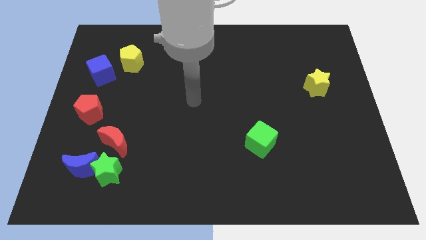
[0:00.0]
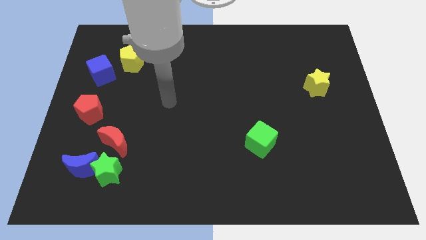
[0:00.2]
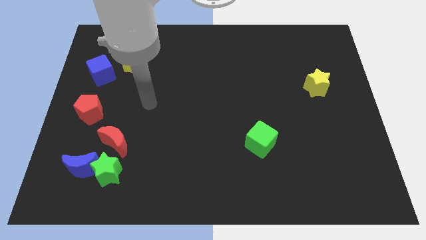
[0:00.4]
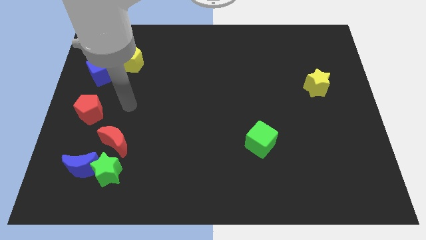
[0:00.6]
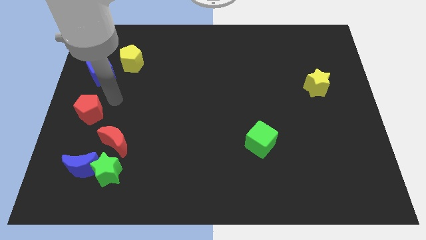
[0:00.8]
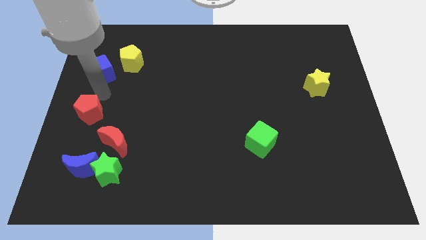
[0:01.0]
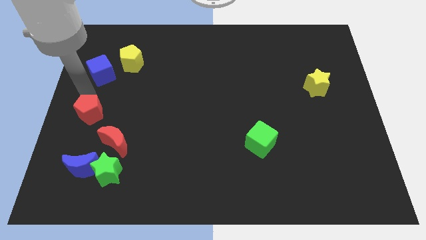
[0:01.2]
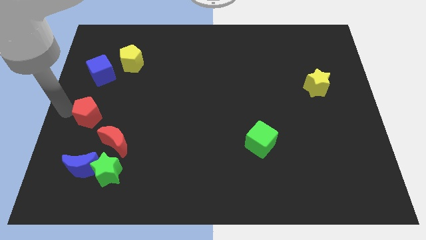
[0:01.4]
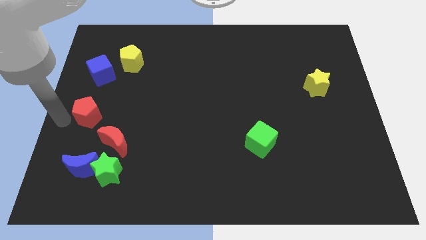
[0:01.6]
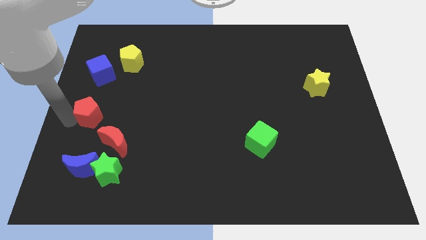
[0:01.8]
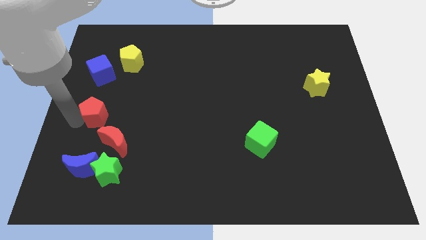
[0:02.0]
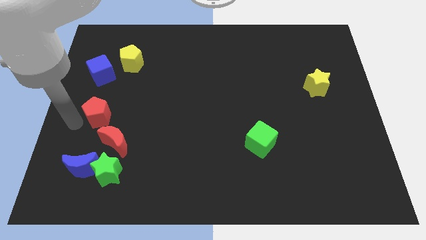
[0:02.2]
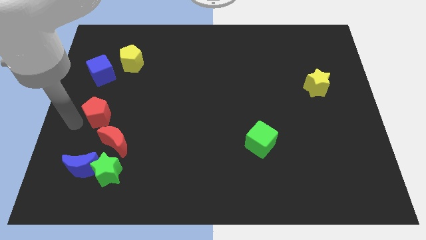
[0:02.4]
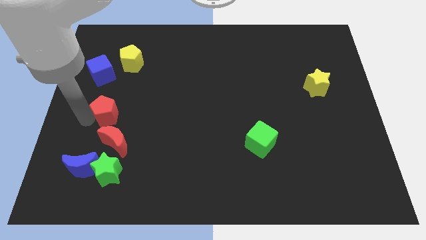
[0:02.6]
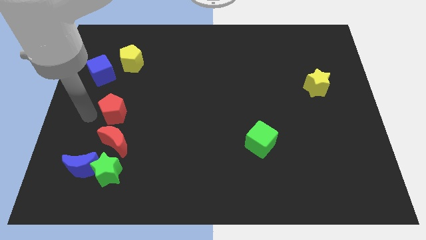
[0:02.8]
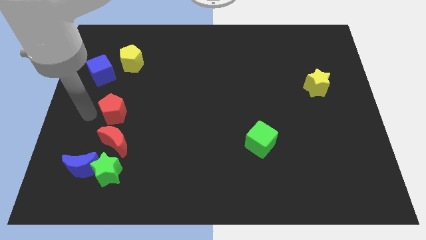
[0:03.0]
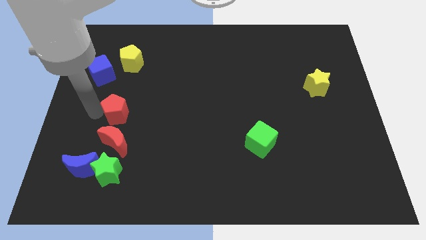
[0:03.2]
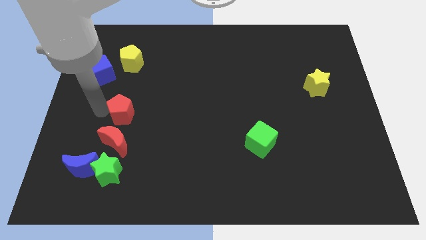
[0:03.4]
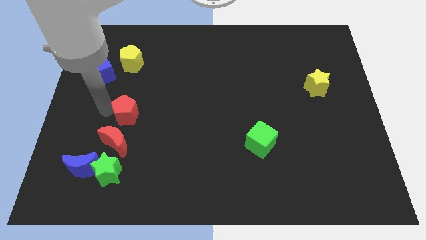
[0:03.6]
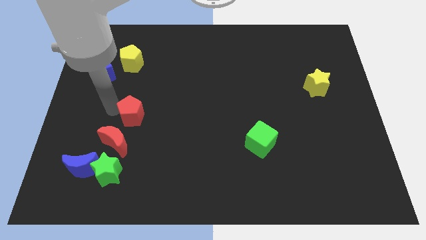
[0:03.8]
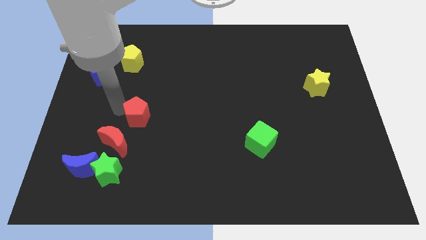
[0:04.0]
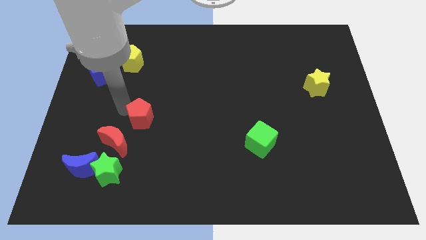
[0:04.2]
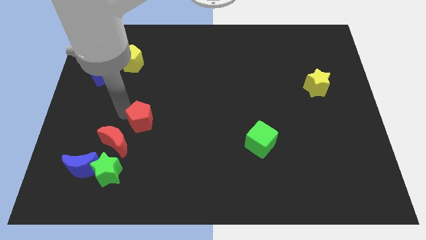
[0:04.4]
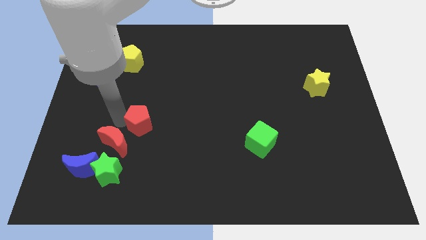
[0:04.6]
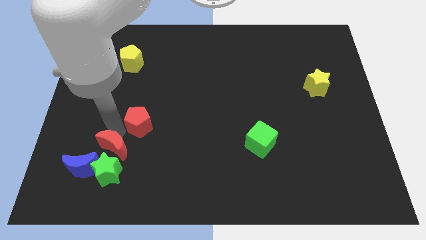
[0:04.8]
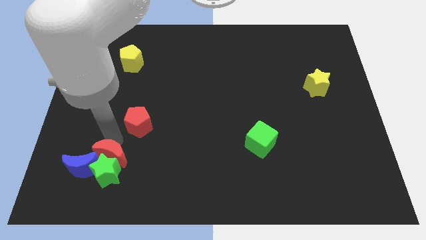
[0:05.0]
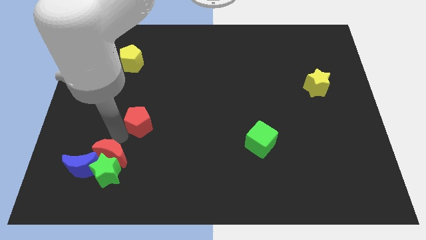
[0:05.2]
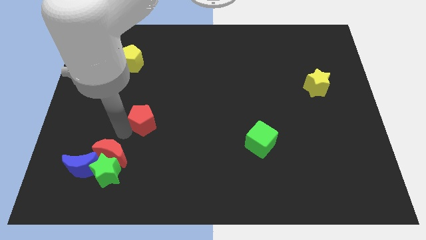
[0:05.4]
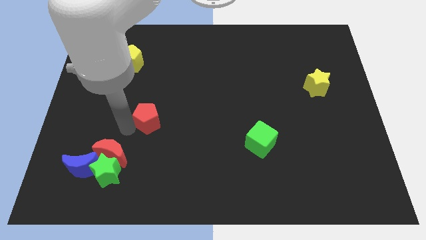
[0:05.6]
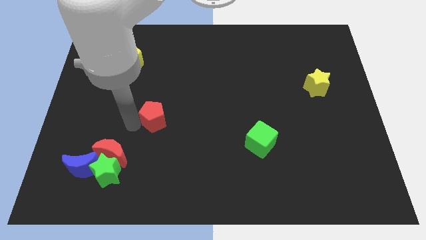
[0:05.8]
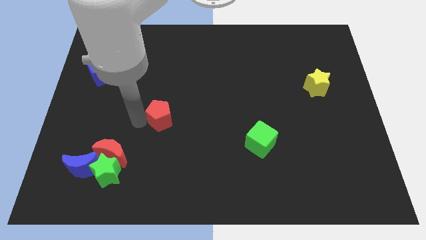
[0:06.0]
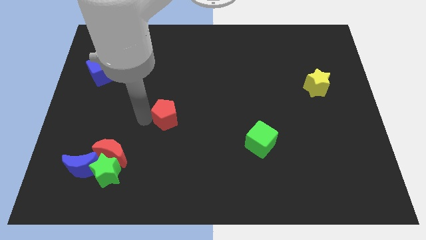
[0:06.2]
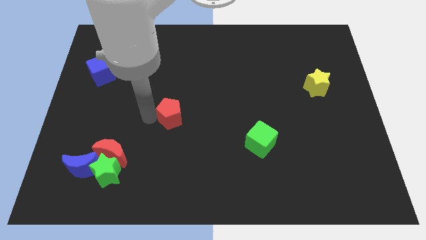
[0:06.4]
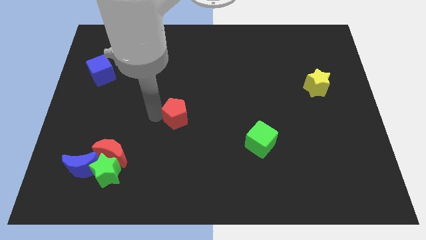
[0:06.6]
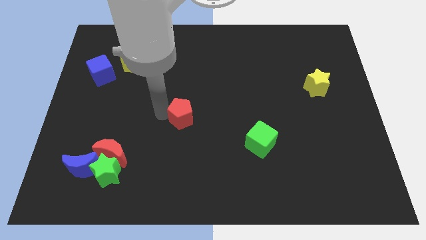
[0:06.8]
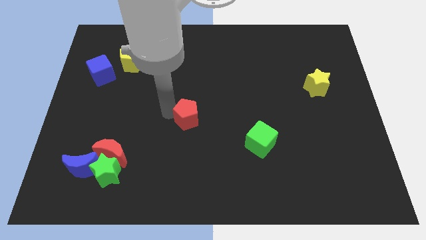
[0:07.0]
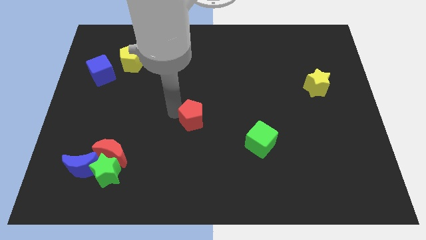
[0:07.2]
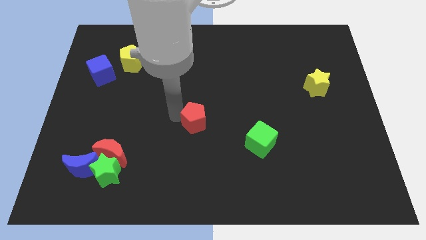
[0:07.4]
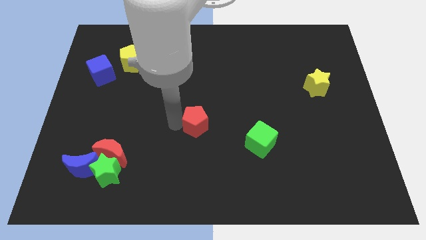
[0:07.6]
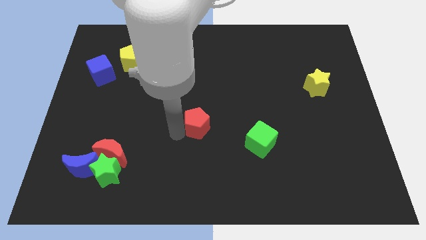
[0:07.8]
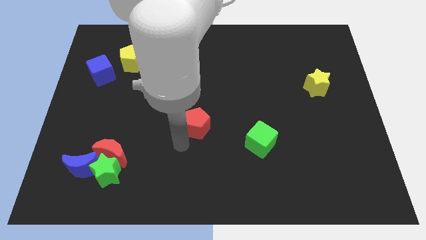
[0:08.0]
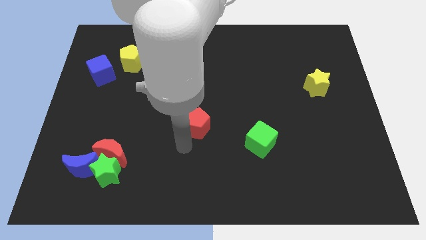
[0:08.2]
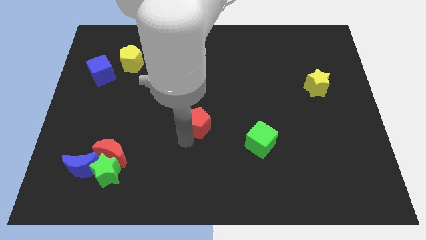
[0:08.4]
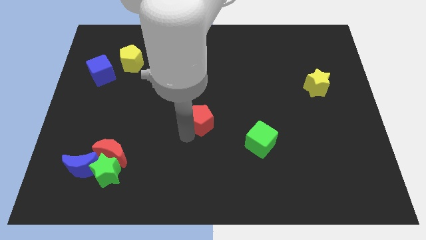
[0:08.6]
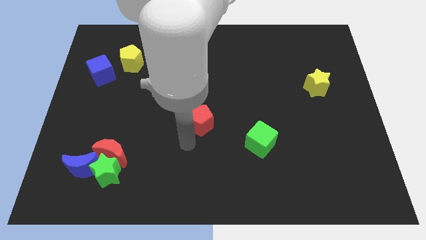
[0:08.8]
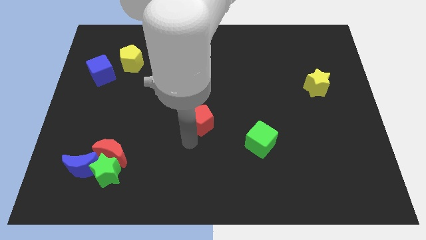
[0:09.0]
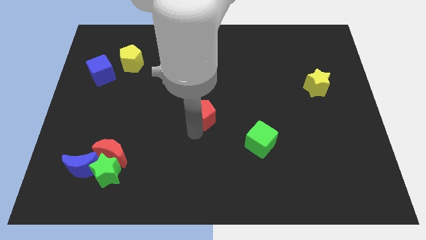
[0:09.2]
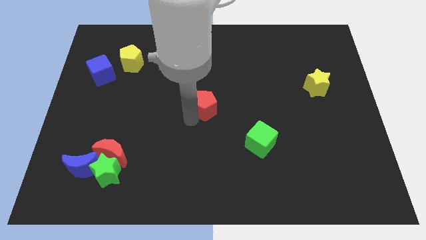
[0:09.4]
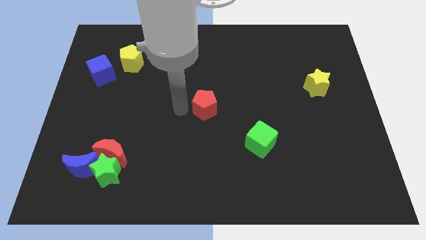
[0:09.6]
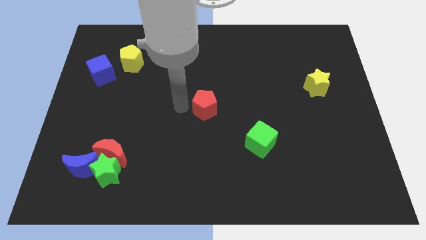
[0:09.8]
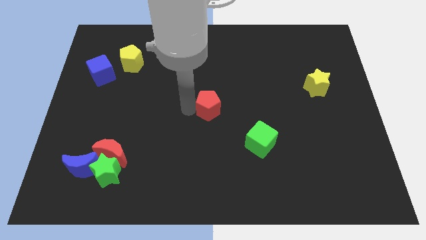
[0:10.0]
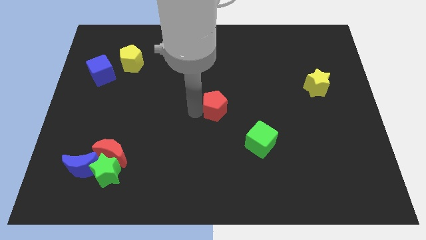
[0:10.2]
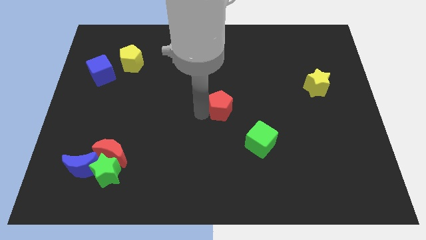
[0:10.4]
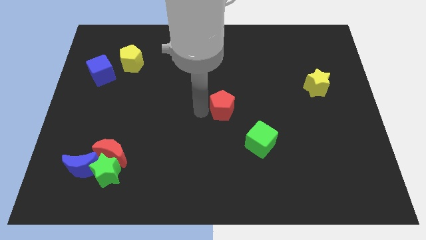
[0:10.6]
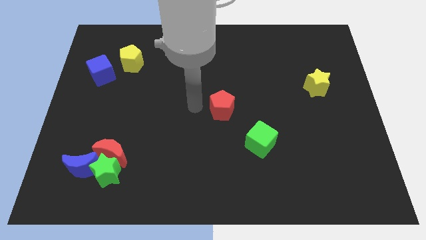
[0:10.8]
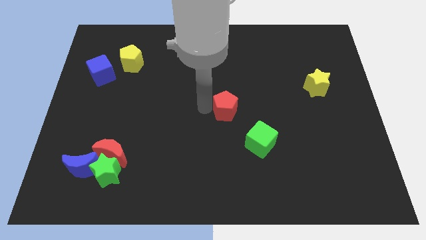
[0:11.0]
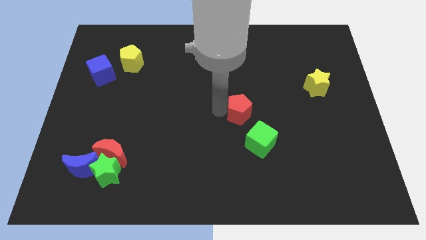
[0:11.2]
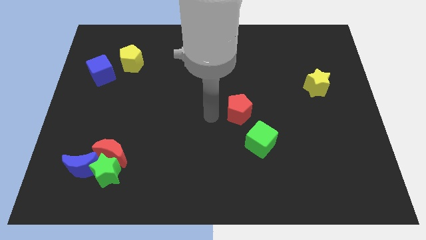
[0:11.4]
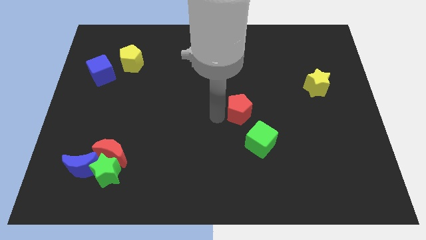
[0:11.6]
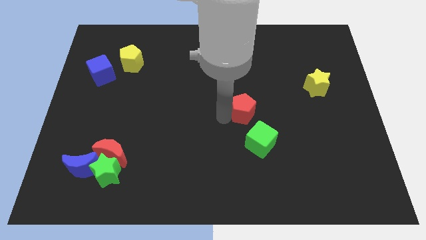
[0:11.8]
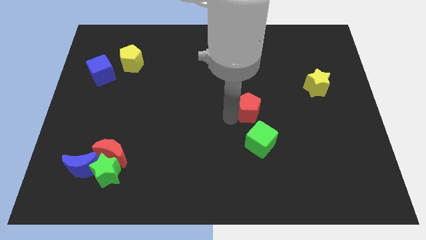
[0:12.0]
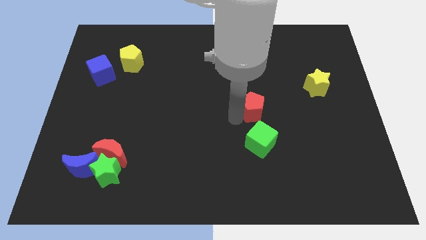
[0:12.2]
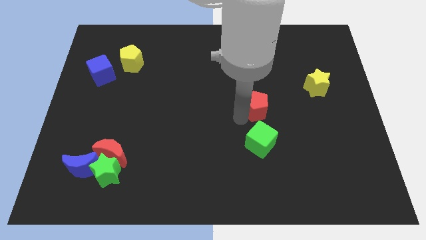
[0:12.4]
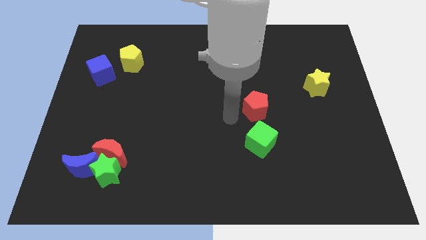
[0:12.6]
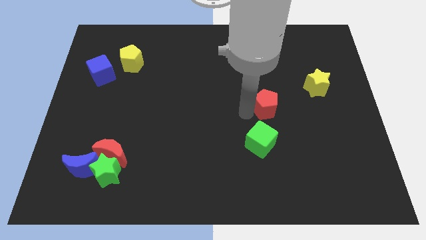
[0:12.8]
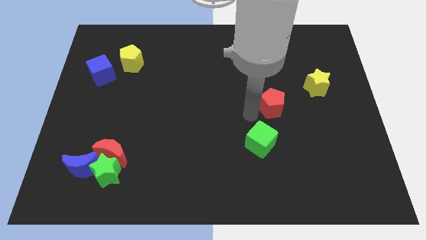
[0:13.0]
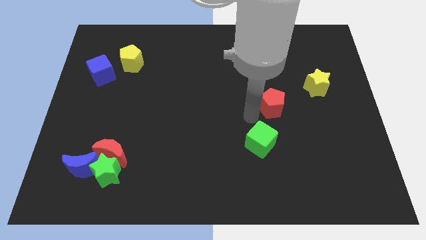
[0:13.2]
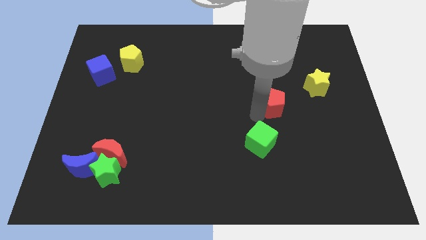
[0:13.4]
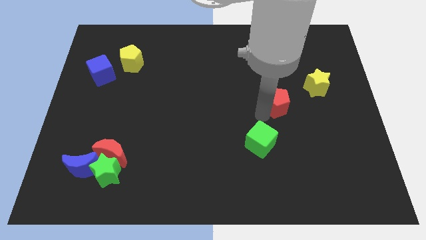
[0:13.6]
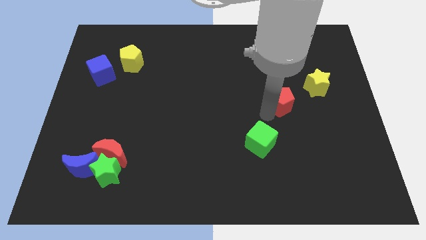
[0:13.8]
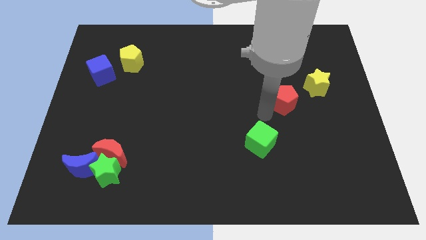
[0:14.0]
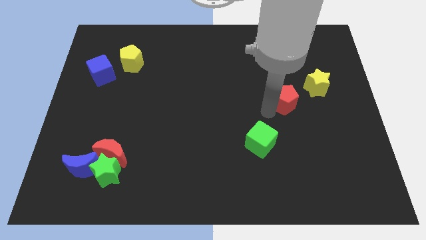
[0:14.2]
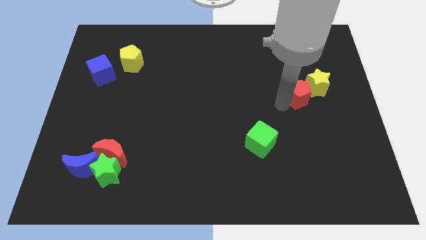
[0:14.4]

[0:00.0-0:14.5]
move the red pentagon towards the yellow star

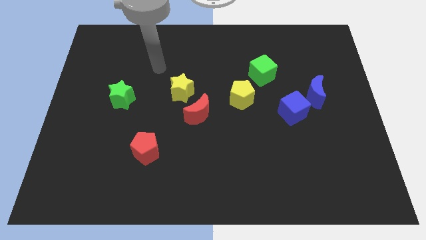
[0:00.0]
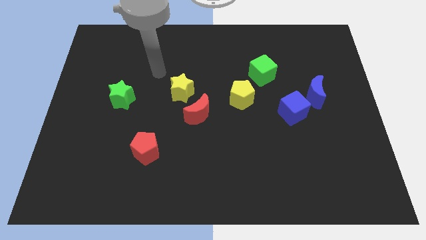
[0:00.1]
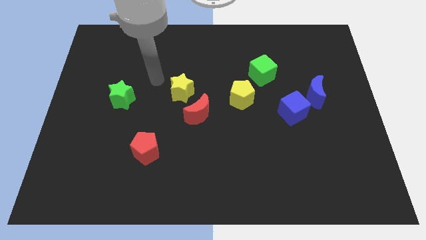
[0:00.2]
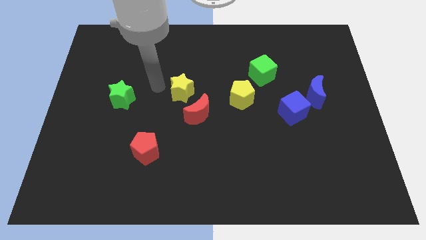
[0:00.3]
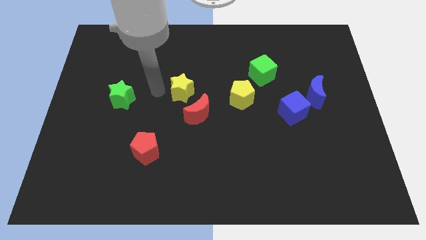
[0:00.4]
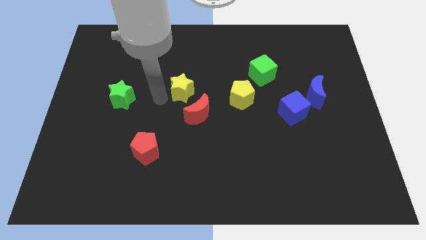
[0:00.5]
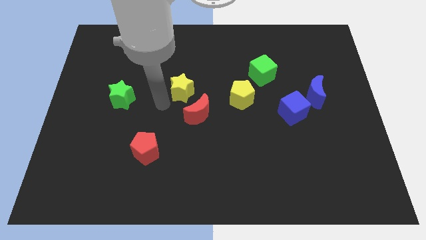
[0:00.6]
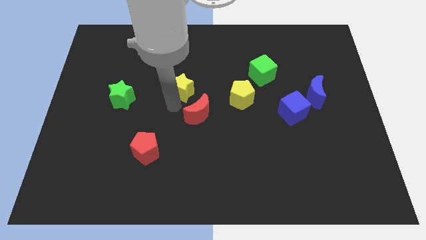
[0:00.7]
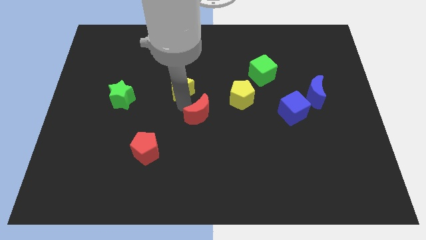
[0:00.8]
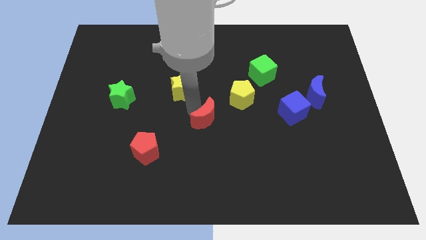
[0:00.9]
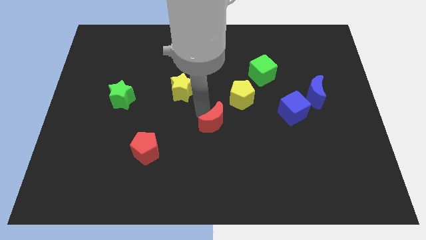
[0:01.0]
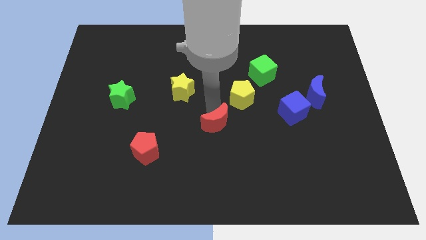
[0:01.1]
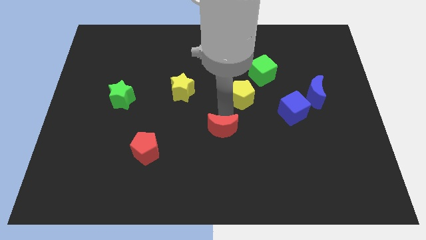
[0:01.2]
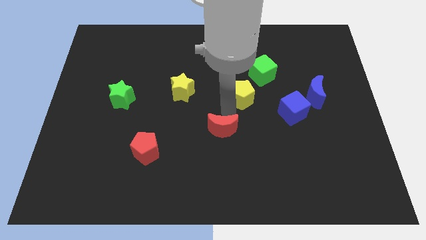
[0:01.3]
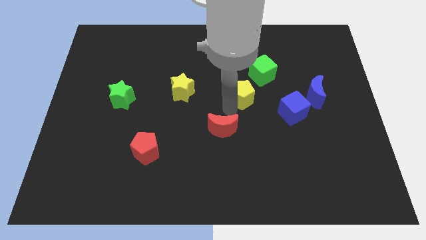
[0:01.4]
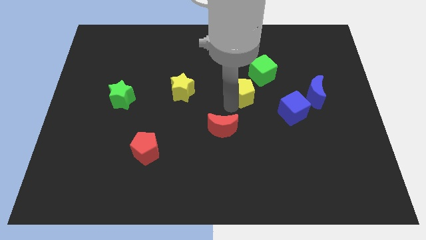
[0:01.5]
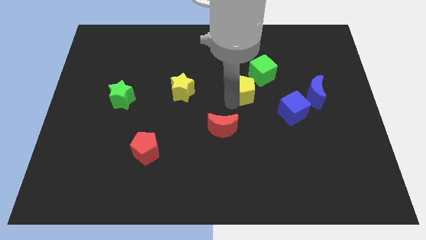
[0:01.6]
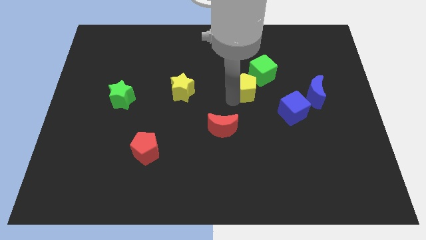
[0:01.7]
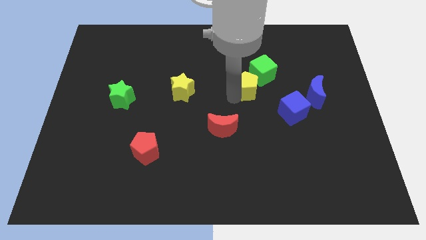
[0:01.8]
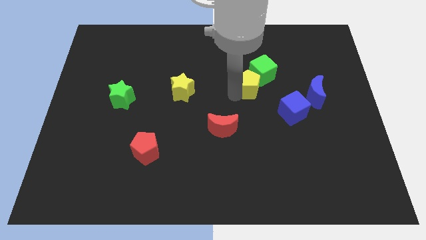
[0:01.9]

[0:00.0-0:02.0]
push the yellow pentagon close to the green cube
